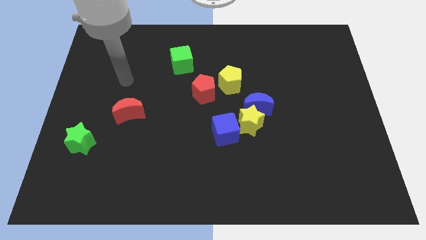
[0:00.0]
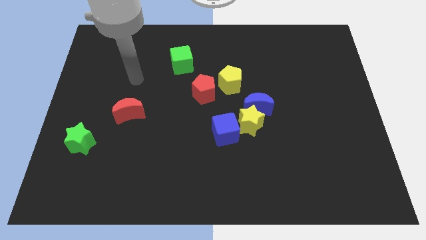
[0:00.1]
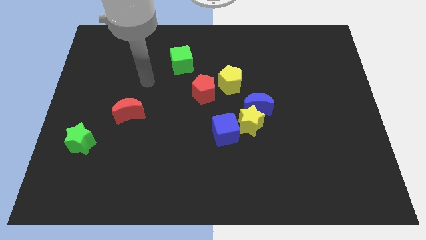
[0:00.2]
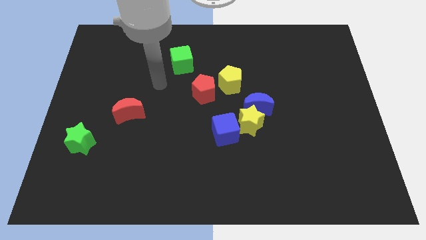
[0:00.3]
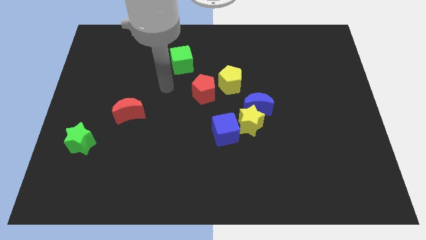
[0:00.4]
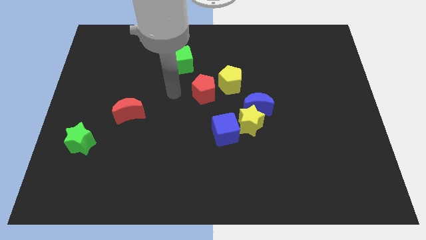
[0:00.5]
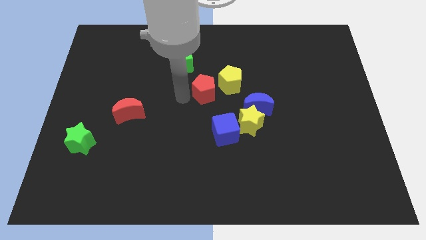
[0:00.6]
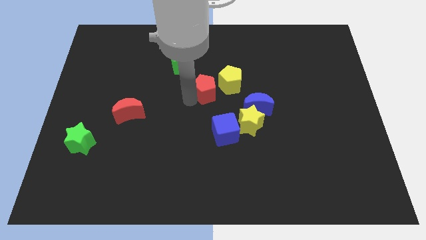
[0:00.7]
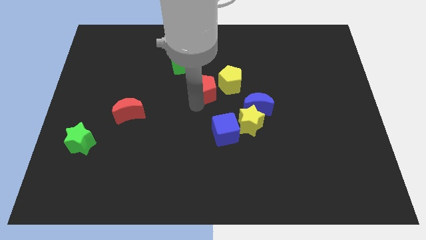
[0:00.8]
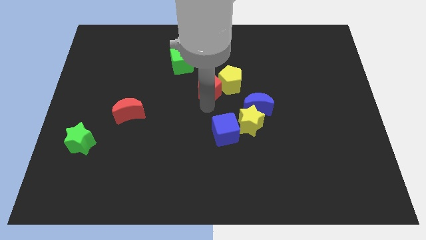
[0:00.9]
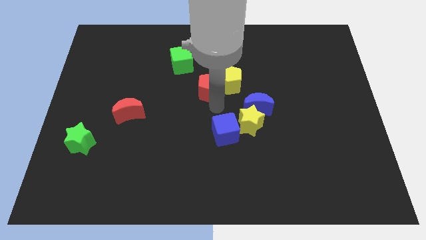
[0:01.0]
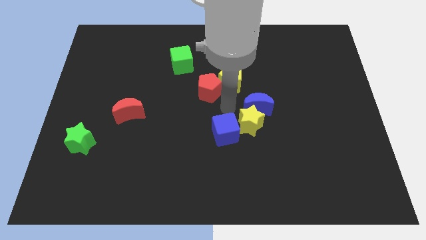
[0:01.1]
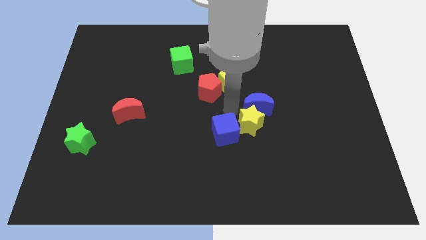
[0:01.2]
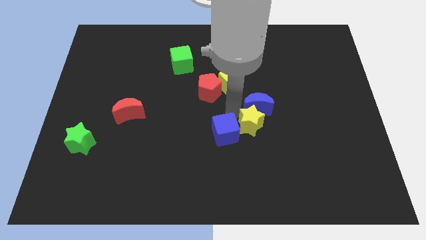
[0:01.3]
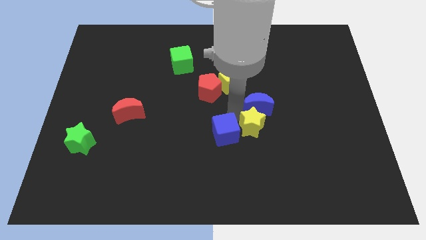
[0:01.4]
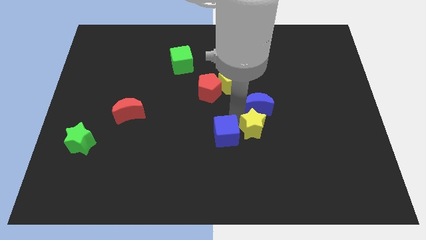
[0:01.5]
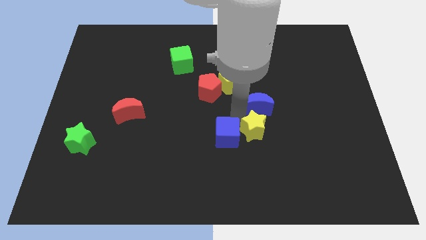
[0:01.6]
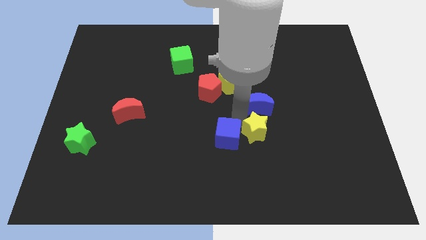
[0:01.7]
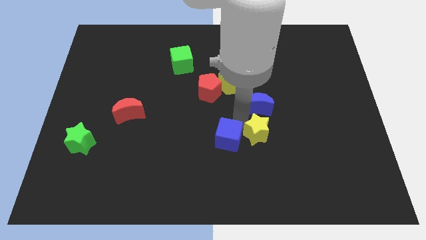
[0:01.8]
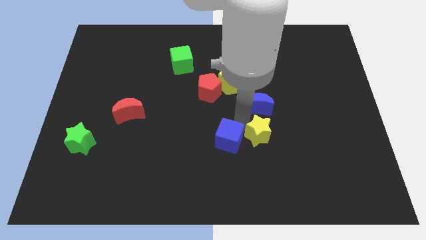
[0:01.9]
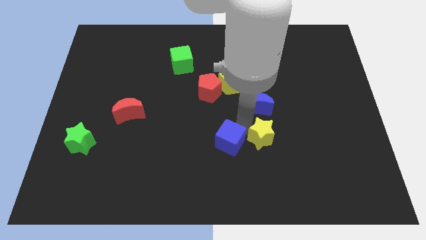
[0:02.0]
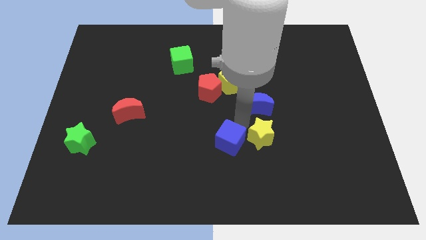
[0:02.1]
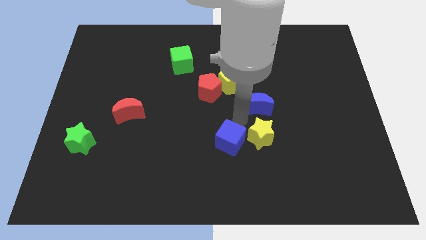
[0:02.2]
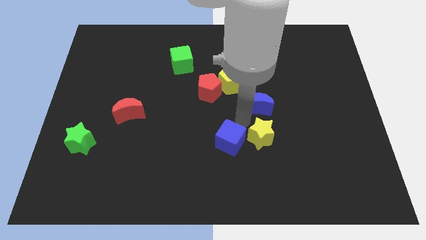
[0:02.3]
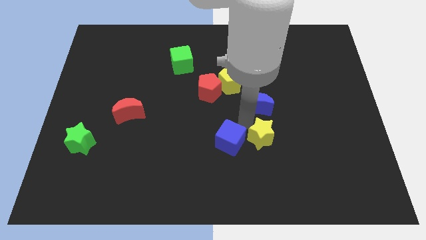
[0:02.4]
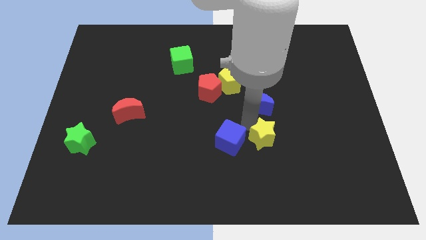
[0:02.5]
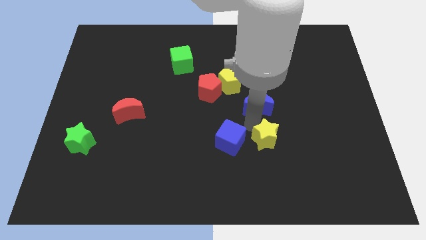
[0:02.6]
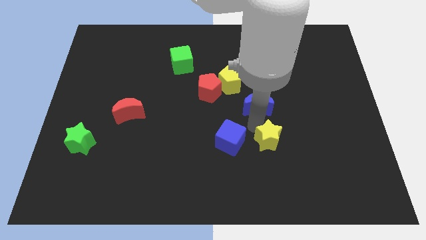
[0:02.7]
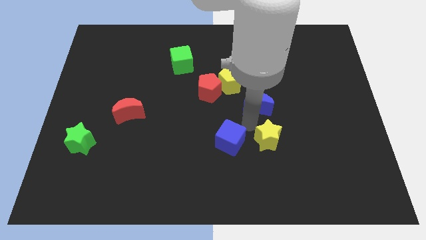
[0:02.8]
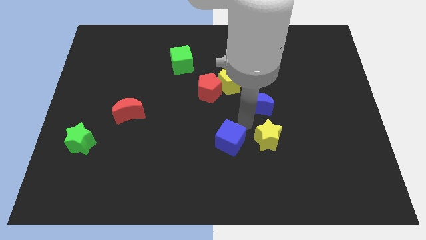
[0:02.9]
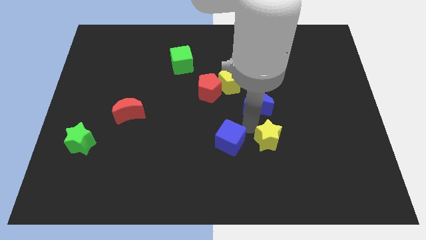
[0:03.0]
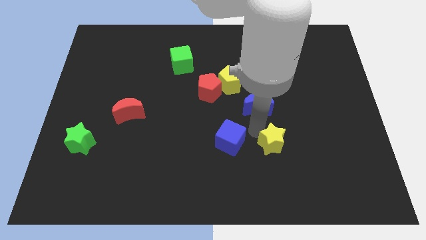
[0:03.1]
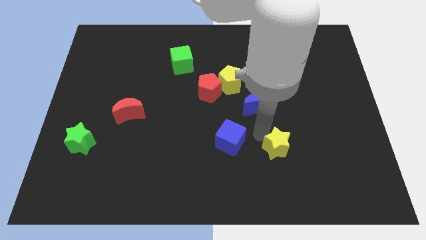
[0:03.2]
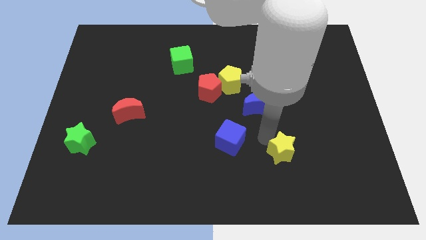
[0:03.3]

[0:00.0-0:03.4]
move the yellow star away from the blue moon and blue cube

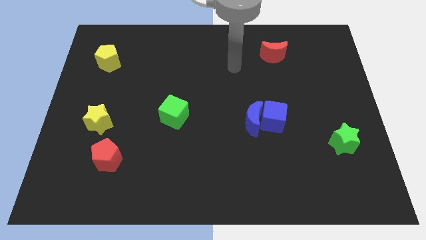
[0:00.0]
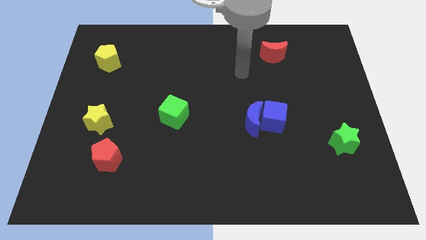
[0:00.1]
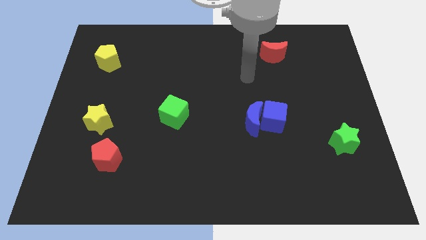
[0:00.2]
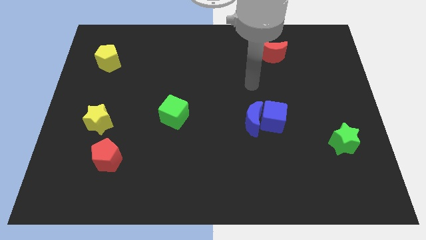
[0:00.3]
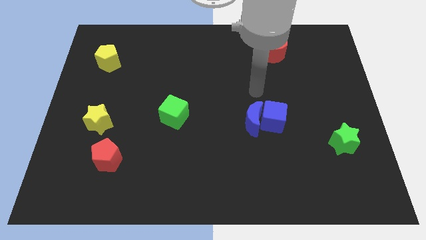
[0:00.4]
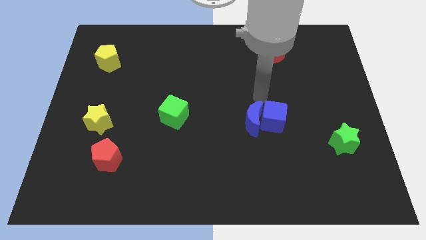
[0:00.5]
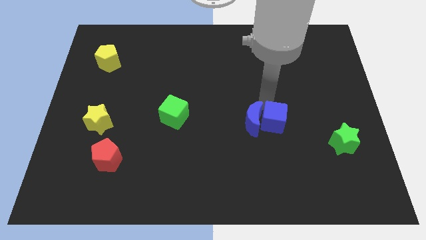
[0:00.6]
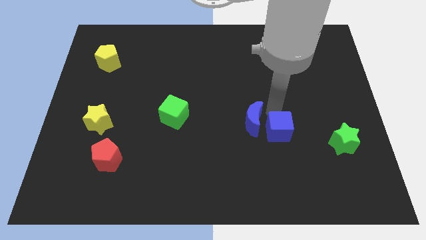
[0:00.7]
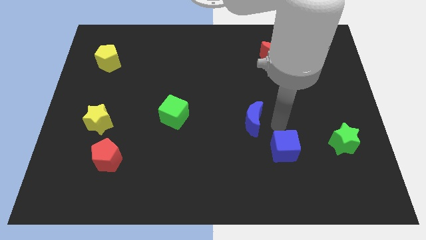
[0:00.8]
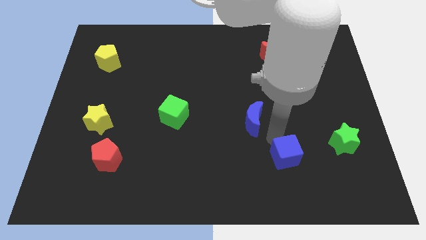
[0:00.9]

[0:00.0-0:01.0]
separate the blue moon from the blue cube

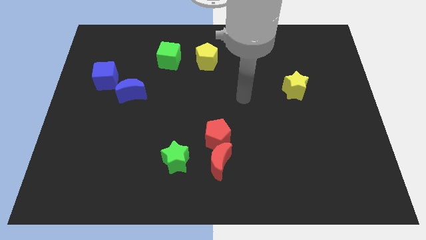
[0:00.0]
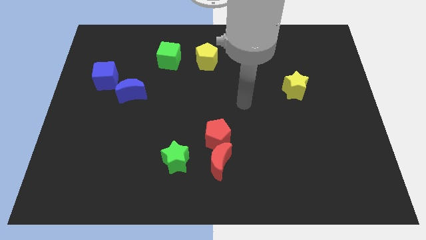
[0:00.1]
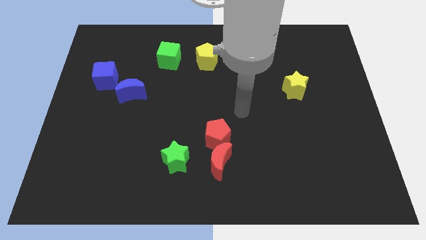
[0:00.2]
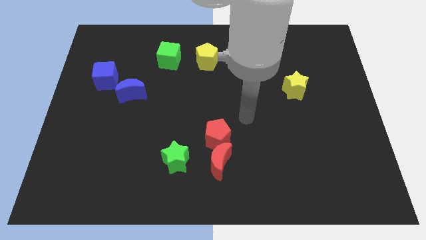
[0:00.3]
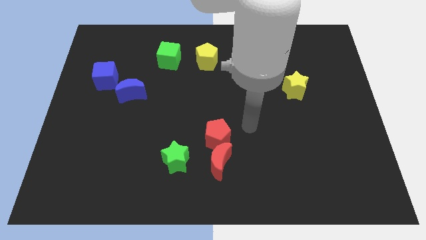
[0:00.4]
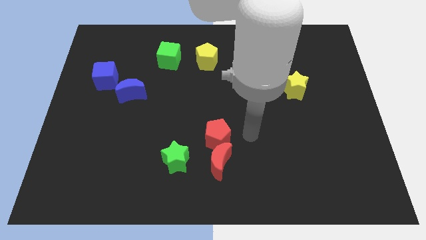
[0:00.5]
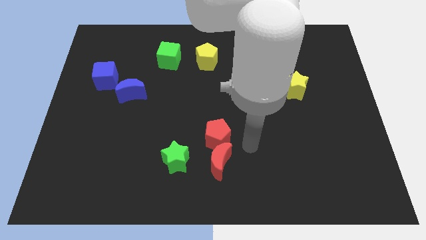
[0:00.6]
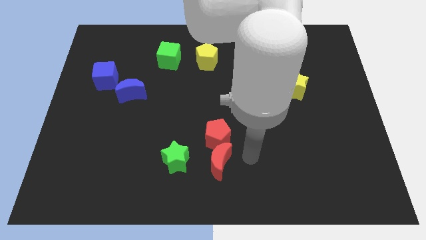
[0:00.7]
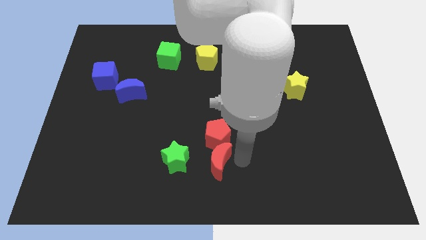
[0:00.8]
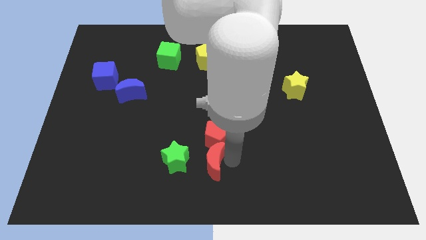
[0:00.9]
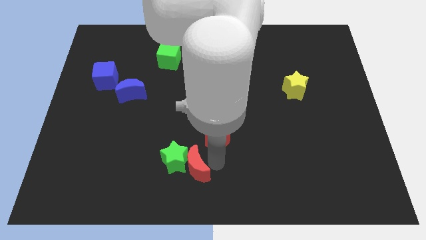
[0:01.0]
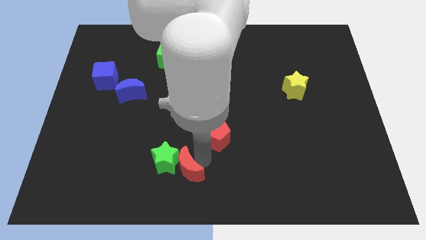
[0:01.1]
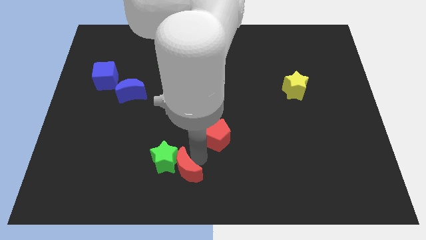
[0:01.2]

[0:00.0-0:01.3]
separate the red pentagon from the red moon

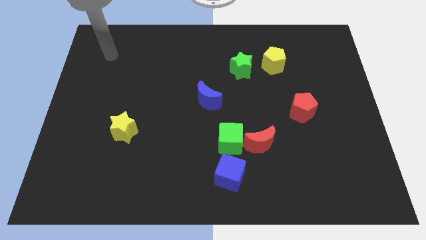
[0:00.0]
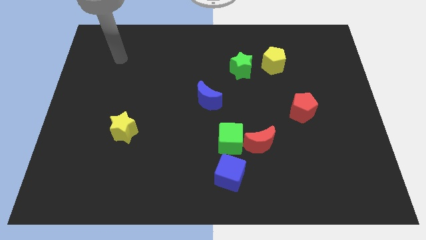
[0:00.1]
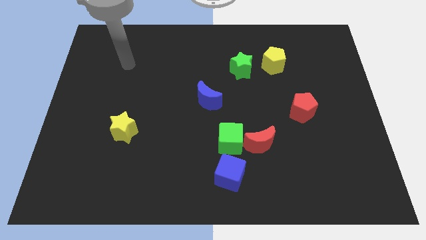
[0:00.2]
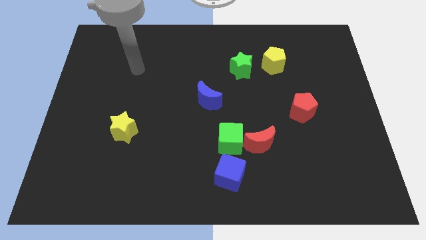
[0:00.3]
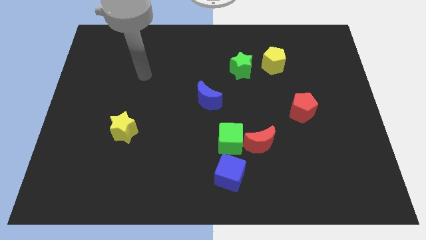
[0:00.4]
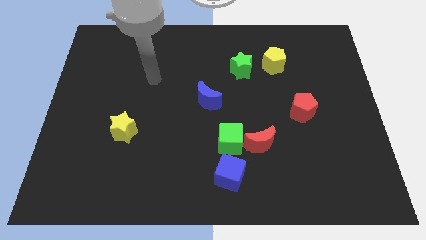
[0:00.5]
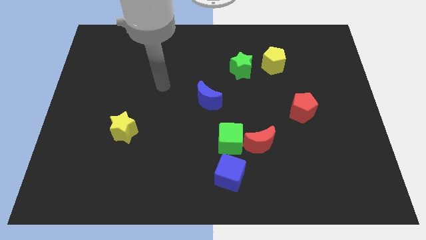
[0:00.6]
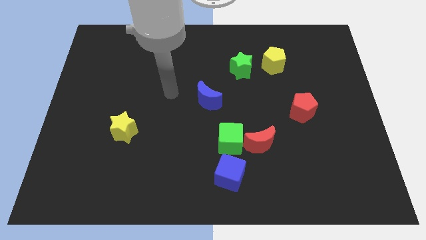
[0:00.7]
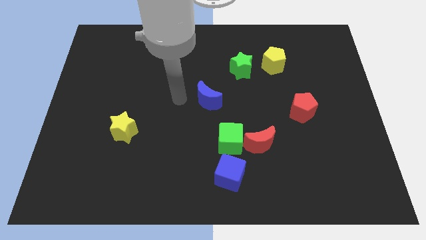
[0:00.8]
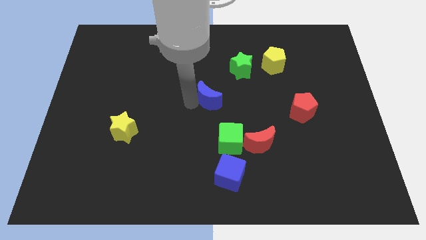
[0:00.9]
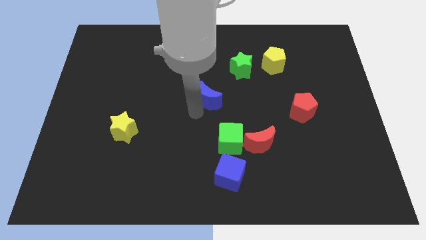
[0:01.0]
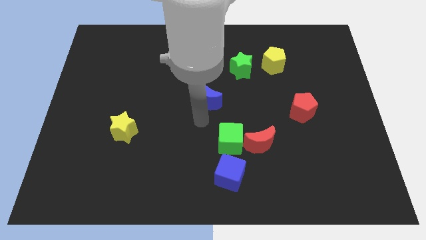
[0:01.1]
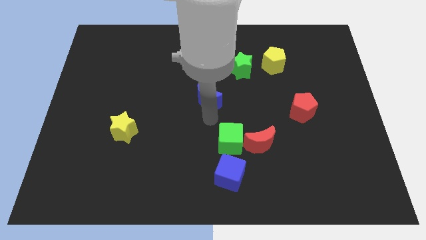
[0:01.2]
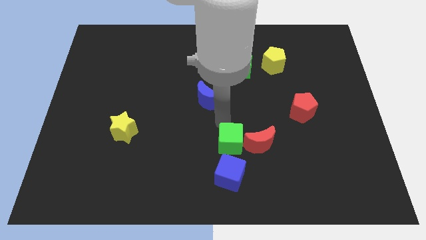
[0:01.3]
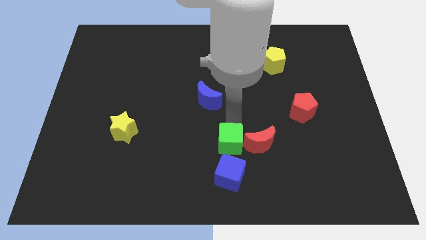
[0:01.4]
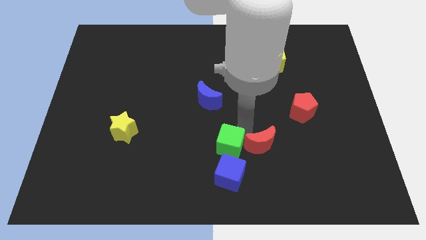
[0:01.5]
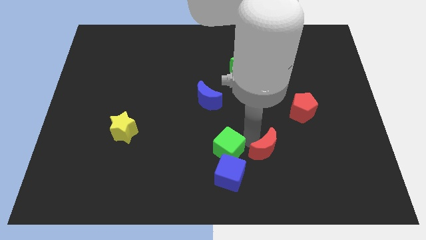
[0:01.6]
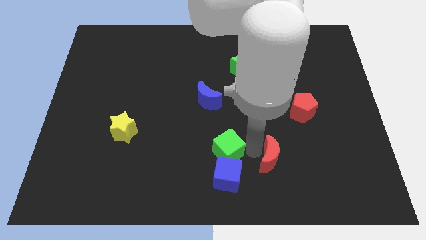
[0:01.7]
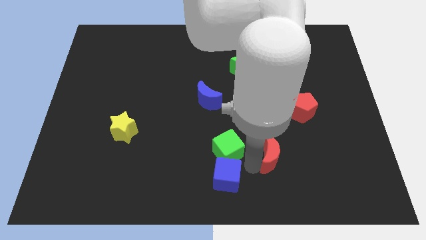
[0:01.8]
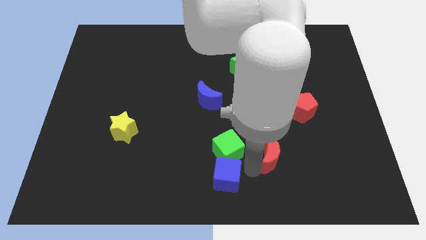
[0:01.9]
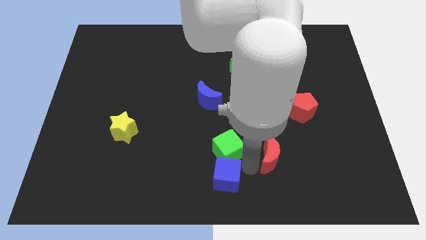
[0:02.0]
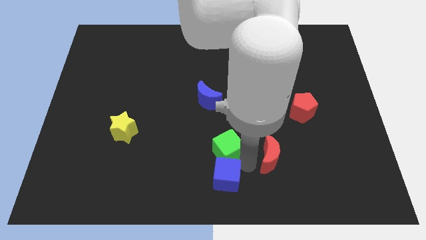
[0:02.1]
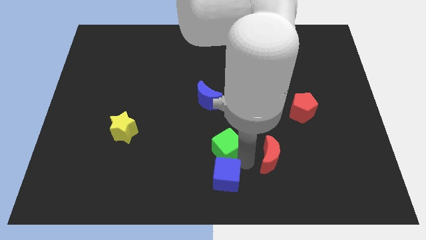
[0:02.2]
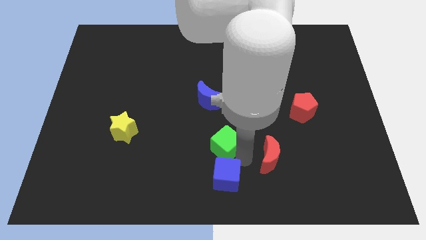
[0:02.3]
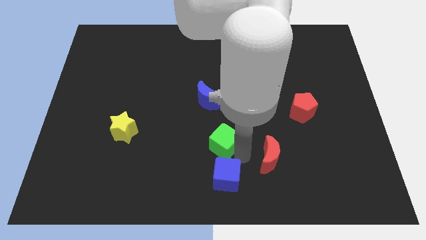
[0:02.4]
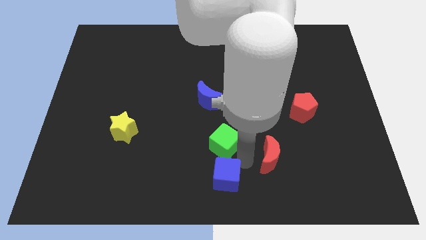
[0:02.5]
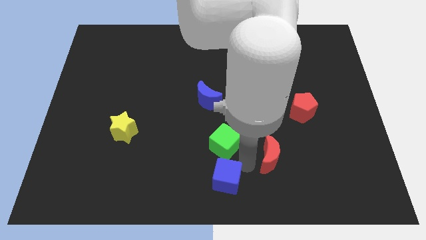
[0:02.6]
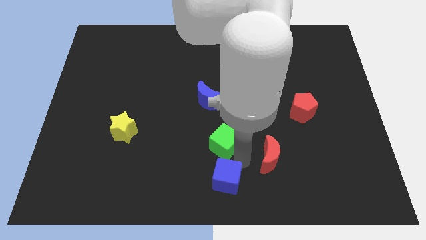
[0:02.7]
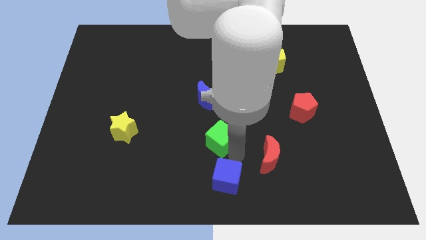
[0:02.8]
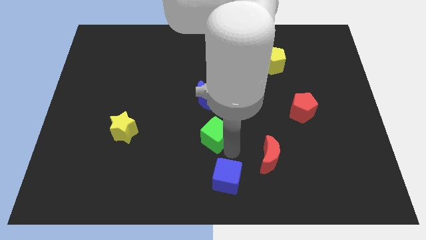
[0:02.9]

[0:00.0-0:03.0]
move the green cube away from the red moon and blue cube

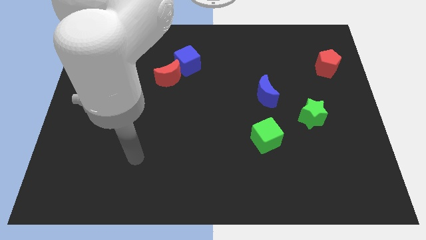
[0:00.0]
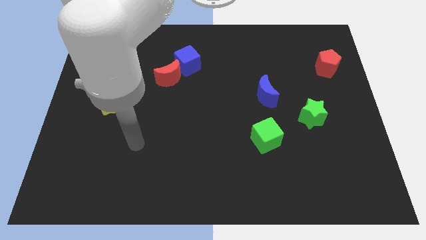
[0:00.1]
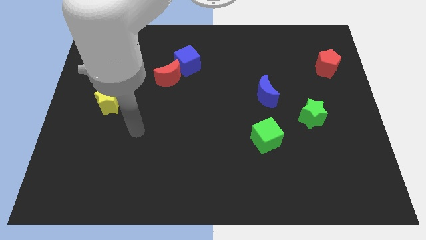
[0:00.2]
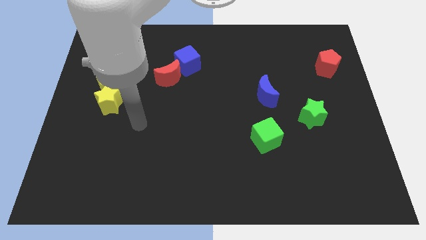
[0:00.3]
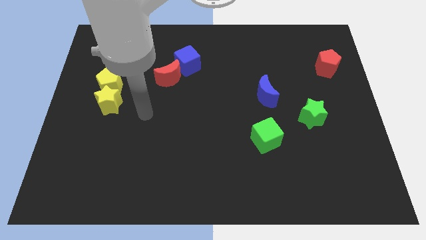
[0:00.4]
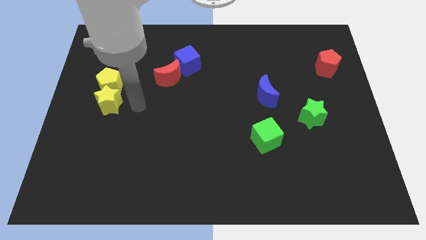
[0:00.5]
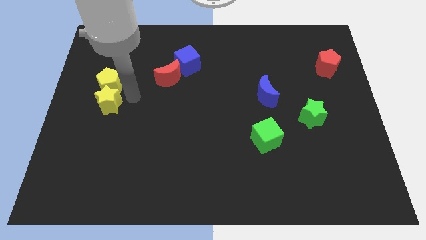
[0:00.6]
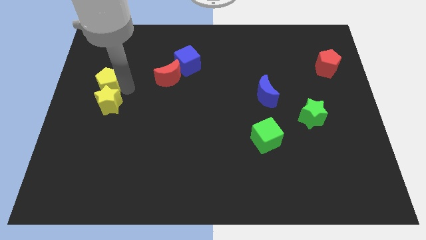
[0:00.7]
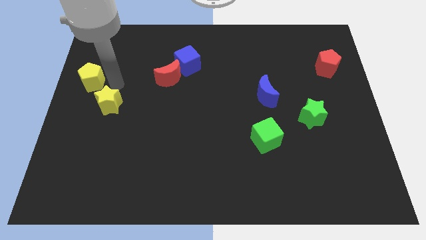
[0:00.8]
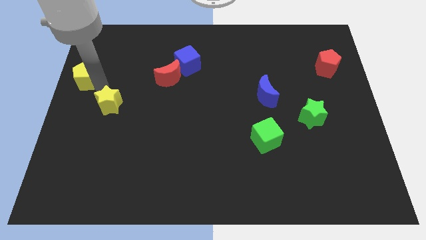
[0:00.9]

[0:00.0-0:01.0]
separate the yellow star from the yellow pentagon
